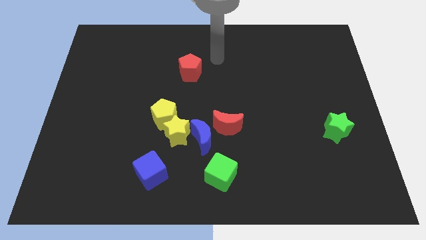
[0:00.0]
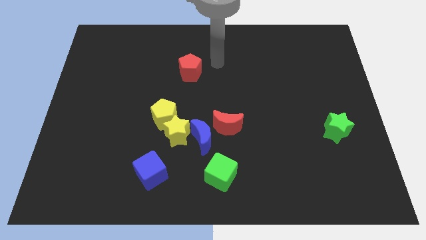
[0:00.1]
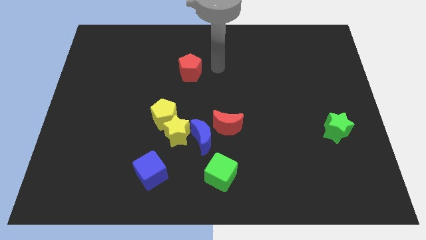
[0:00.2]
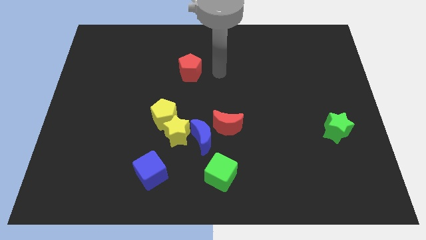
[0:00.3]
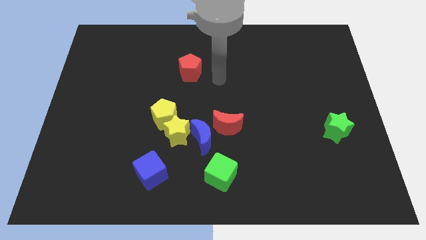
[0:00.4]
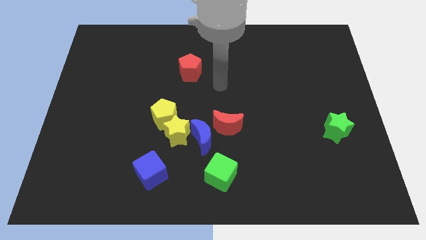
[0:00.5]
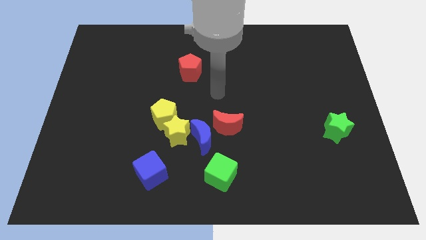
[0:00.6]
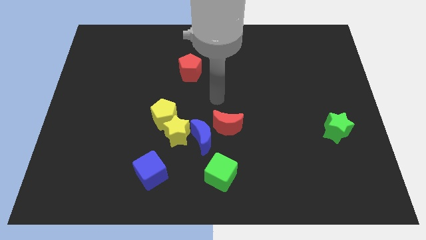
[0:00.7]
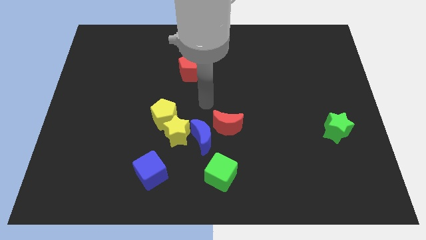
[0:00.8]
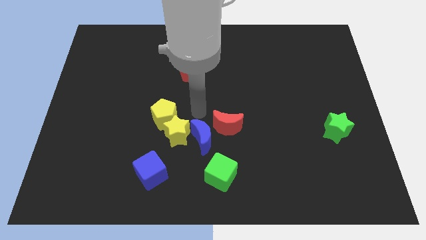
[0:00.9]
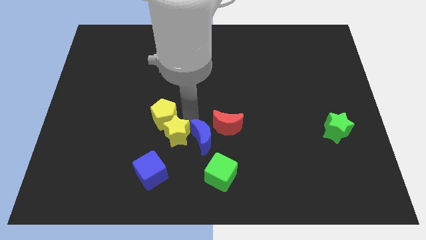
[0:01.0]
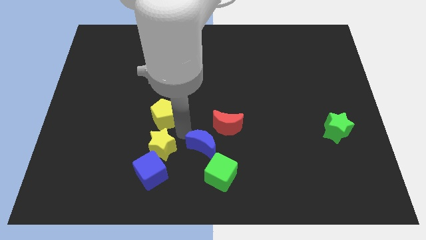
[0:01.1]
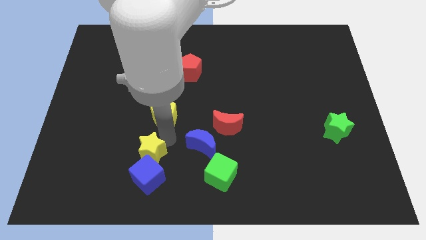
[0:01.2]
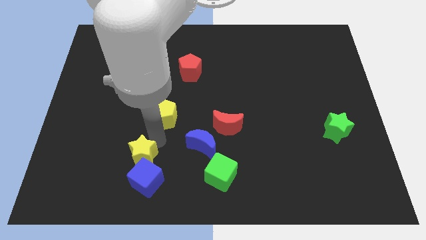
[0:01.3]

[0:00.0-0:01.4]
separate the yellow pentagon from the yellow star

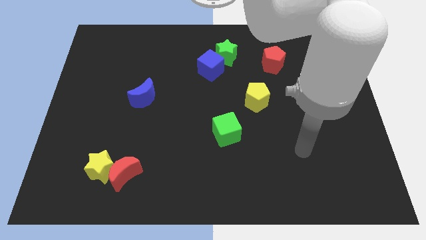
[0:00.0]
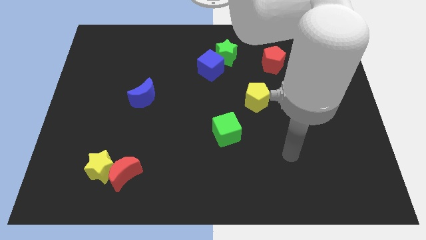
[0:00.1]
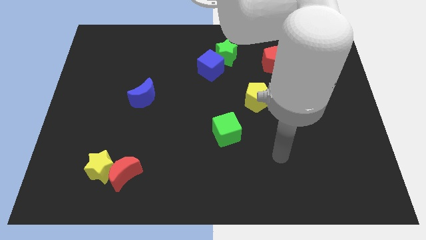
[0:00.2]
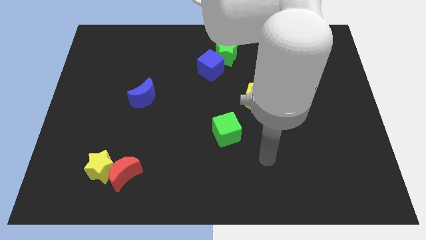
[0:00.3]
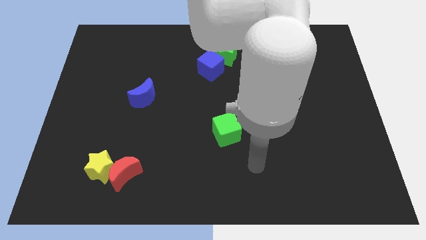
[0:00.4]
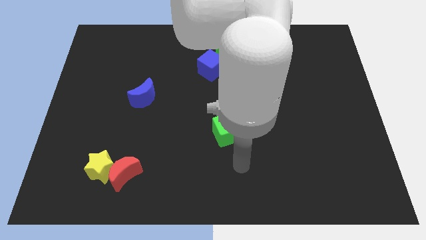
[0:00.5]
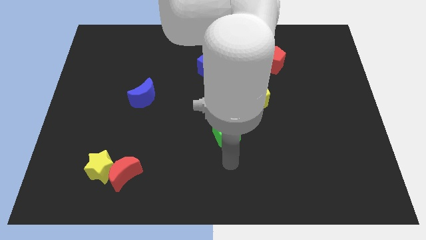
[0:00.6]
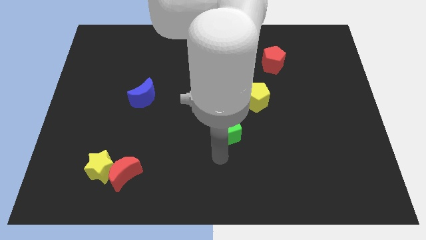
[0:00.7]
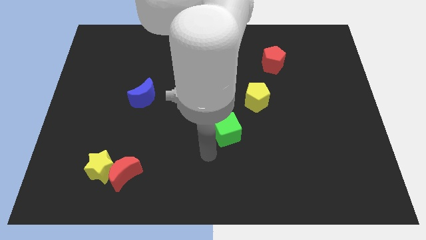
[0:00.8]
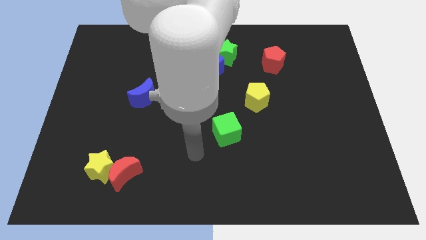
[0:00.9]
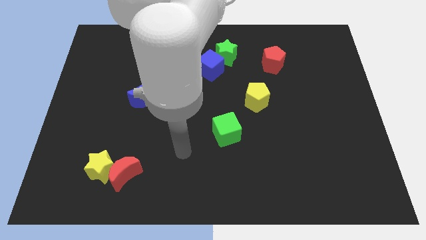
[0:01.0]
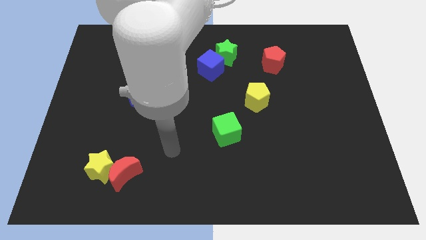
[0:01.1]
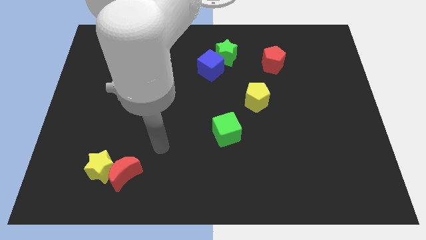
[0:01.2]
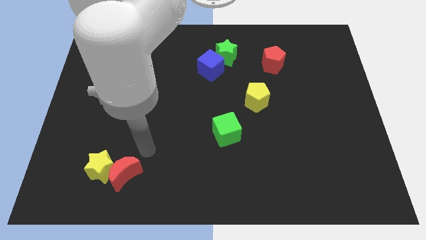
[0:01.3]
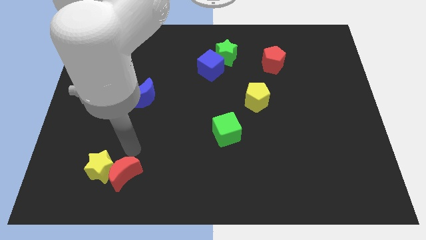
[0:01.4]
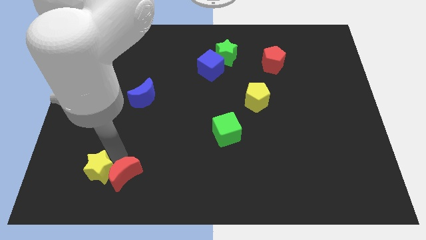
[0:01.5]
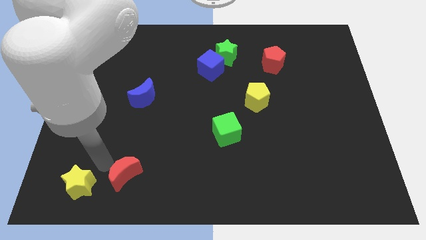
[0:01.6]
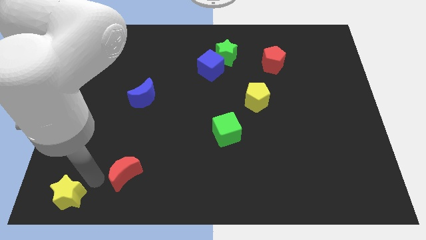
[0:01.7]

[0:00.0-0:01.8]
separate the red moon from the yellow star

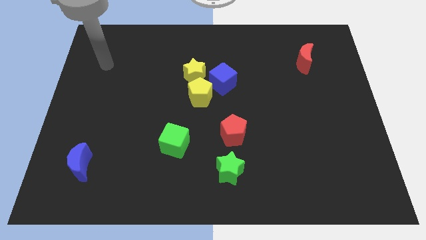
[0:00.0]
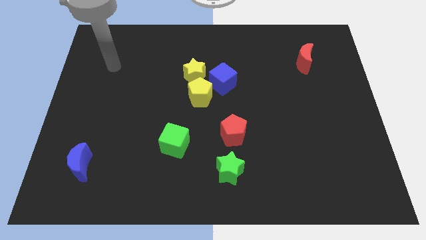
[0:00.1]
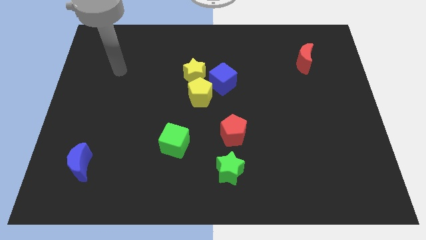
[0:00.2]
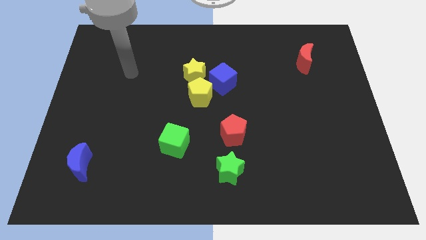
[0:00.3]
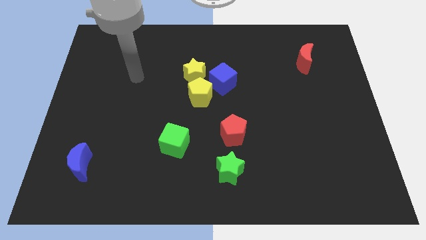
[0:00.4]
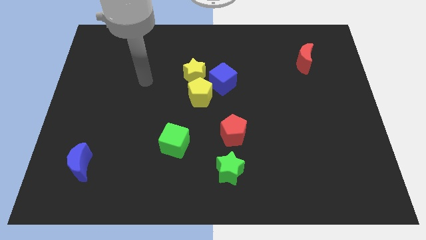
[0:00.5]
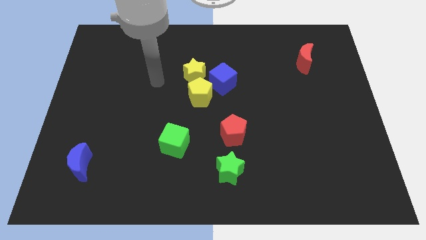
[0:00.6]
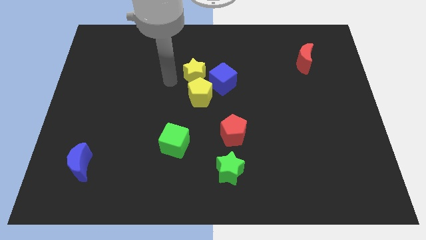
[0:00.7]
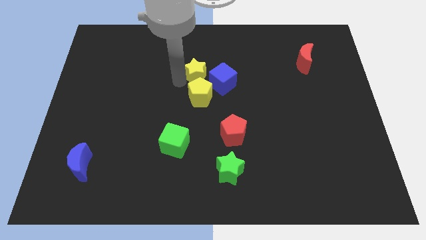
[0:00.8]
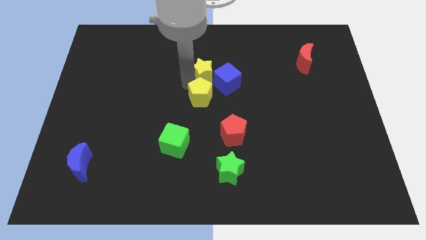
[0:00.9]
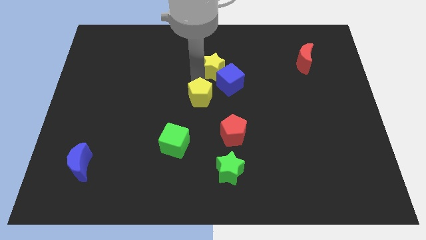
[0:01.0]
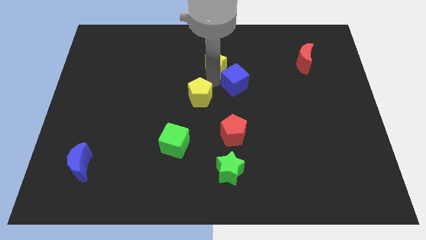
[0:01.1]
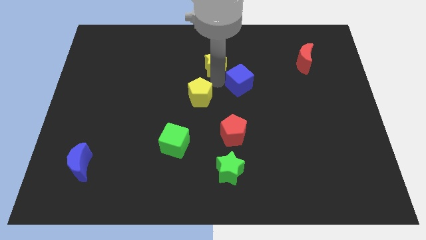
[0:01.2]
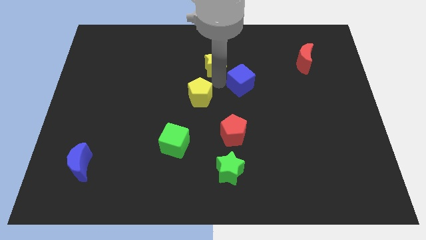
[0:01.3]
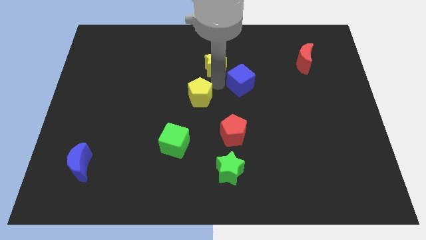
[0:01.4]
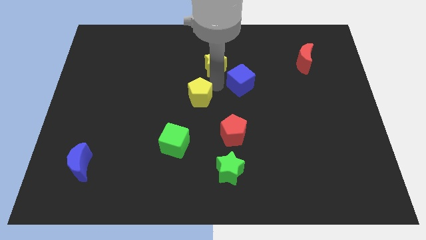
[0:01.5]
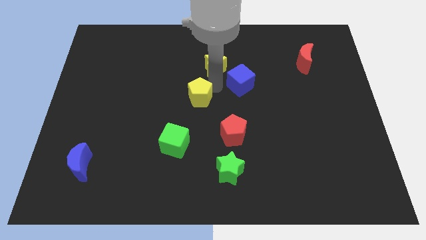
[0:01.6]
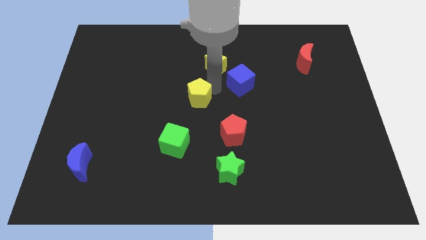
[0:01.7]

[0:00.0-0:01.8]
separate the yellow pentagon from the yellow star and blue cube

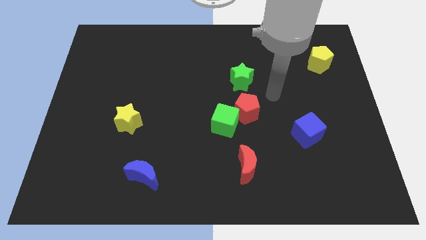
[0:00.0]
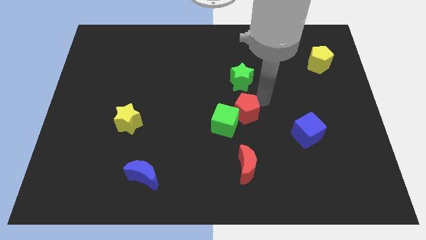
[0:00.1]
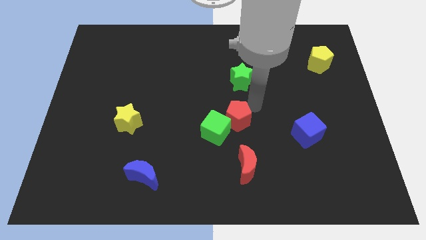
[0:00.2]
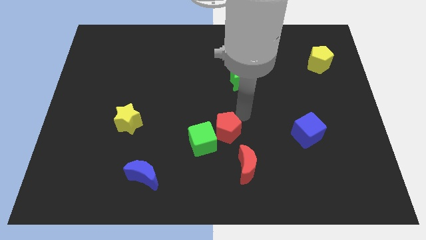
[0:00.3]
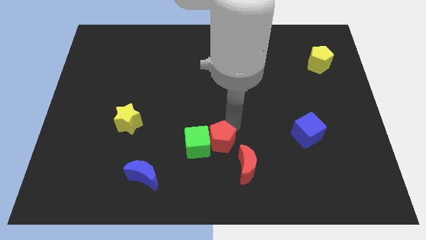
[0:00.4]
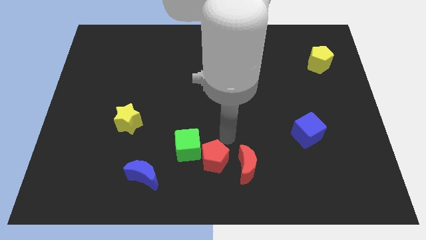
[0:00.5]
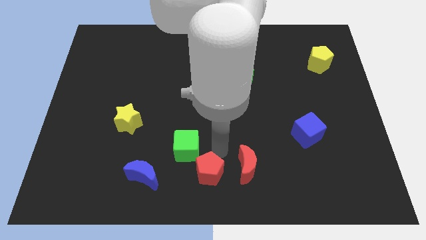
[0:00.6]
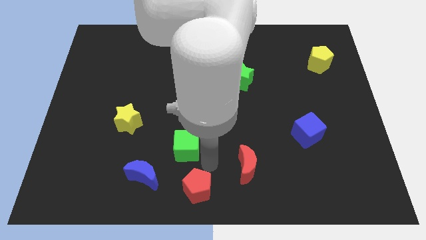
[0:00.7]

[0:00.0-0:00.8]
separate the green cube from the red pentagon

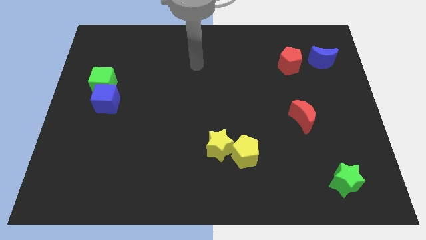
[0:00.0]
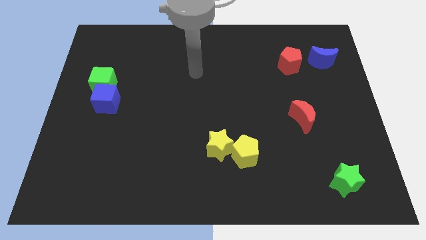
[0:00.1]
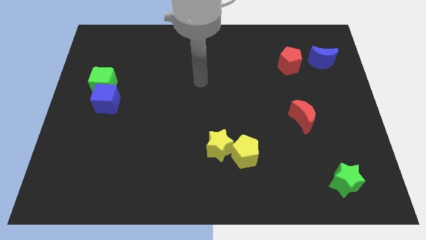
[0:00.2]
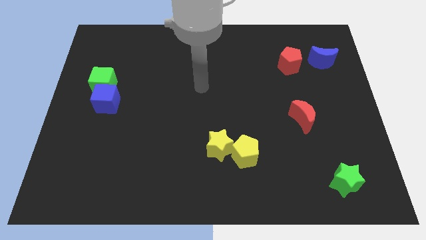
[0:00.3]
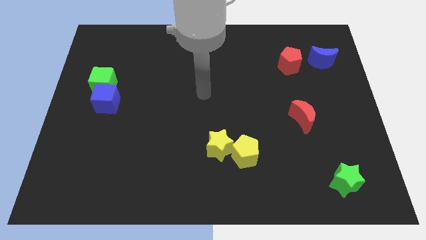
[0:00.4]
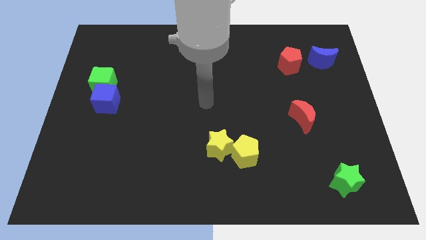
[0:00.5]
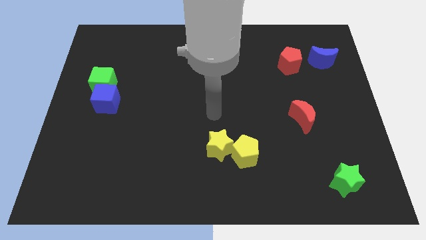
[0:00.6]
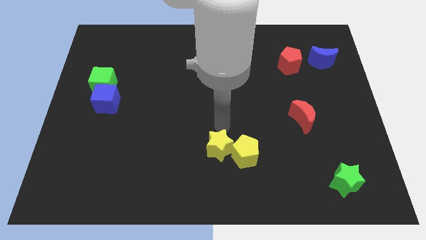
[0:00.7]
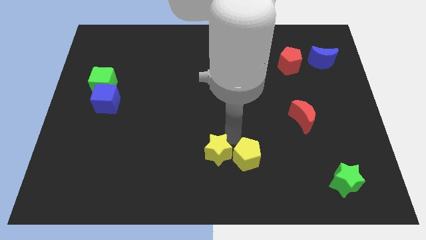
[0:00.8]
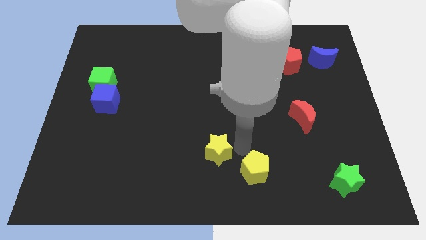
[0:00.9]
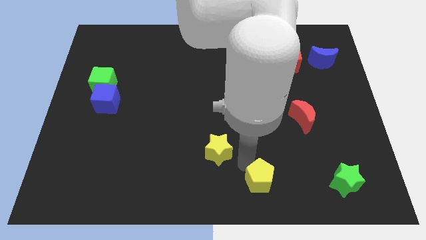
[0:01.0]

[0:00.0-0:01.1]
separate the yellow star from the yellow pentagon

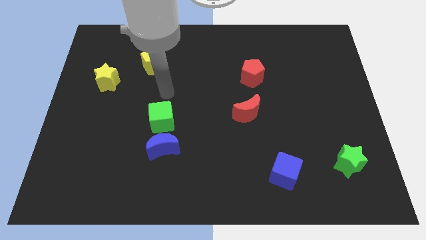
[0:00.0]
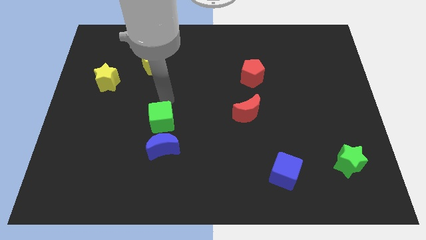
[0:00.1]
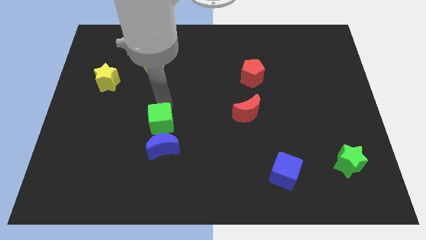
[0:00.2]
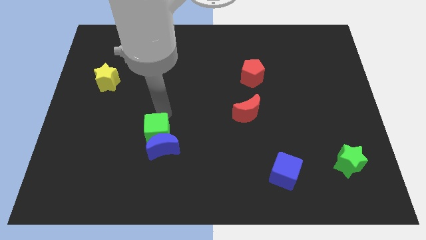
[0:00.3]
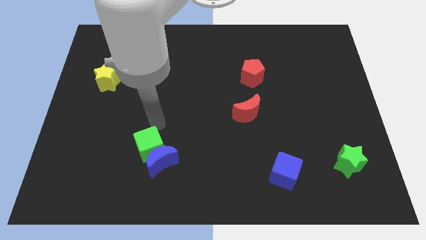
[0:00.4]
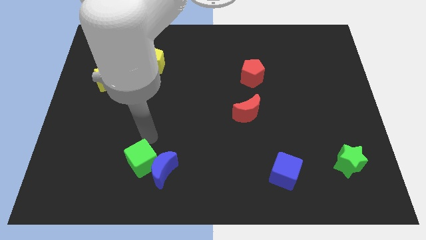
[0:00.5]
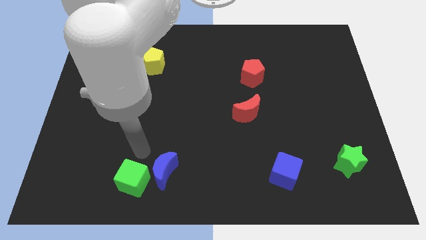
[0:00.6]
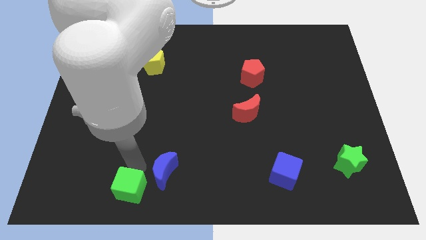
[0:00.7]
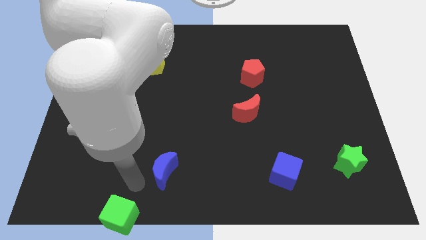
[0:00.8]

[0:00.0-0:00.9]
move the blue moon away from the green cube

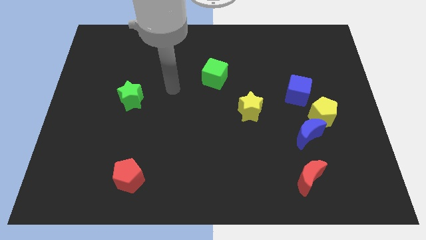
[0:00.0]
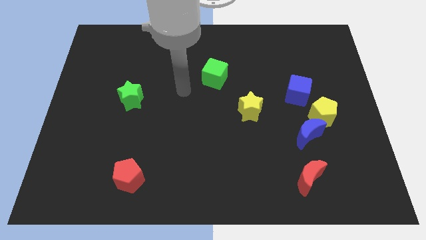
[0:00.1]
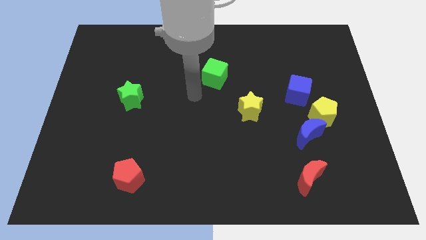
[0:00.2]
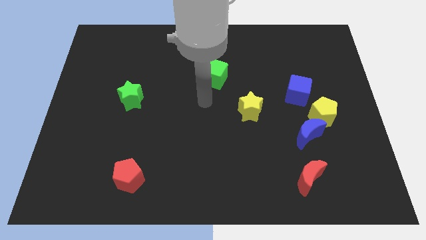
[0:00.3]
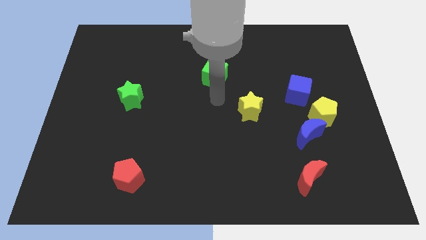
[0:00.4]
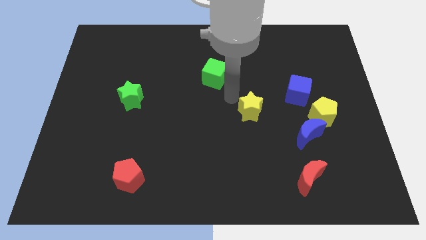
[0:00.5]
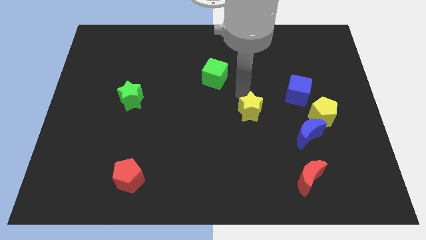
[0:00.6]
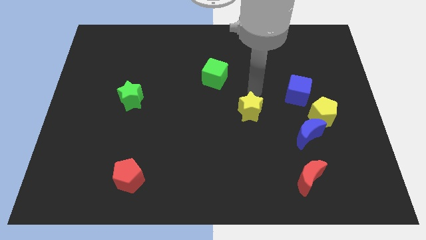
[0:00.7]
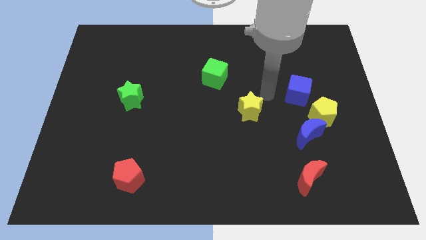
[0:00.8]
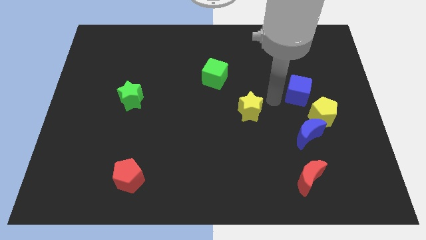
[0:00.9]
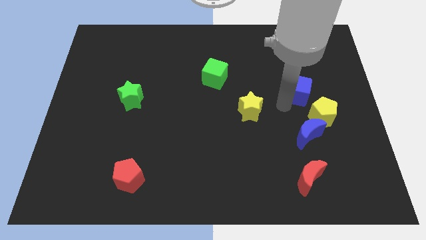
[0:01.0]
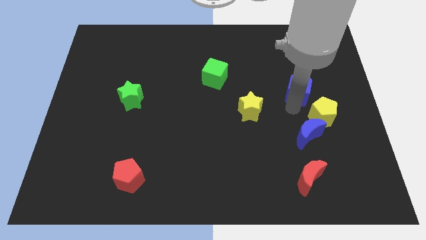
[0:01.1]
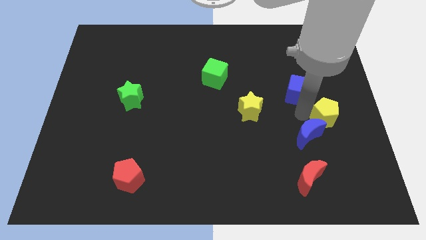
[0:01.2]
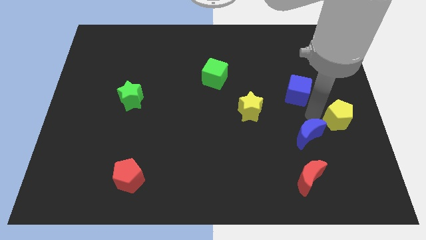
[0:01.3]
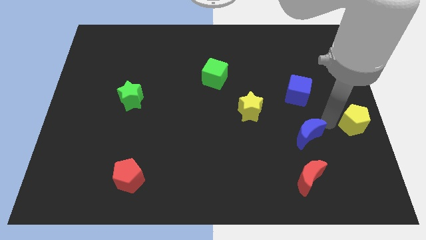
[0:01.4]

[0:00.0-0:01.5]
separate the blue moon from the yellow pentagon
